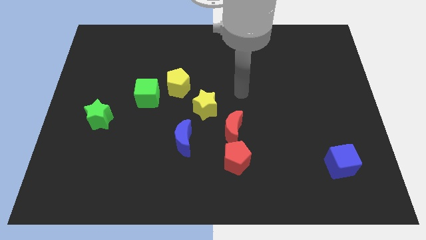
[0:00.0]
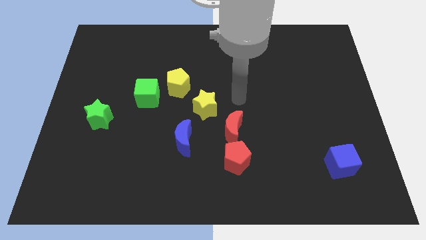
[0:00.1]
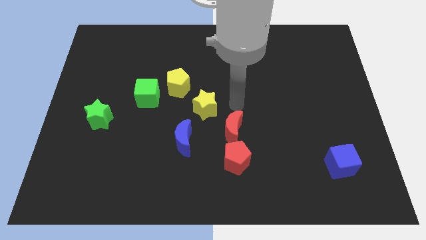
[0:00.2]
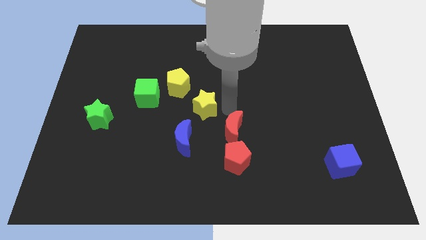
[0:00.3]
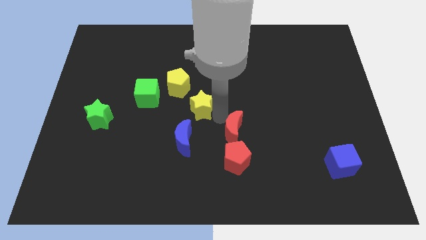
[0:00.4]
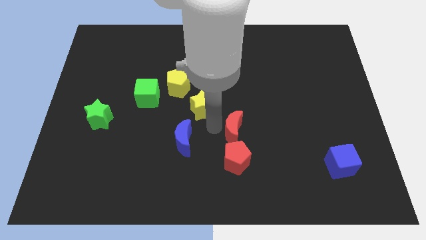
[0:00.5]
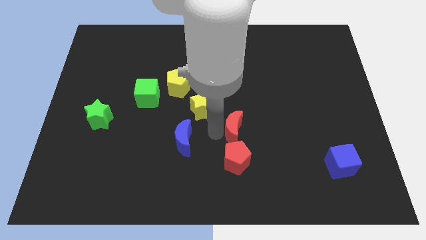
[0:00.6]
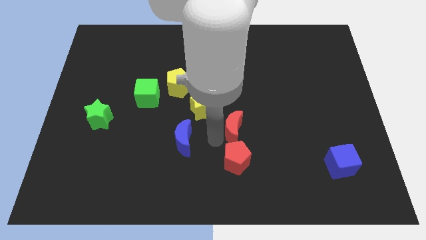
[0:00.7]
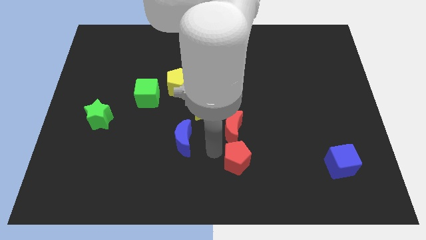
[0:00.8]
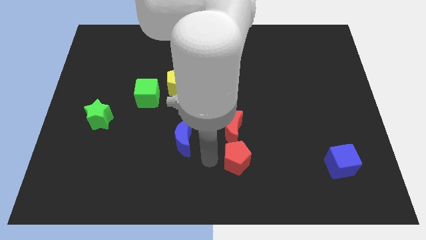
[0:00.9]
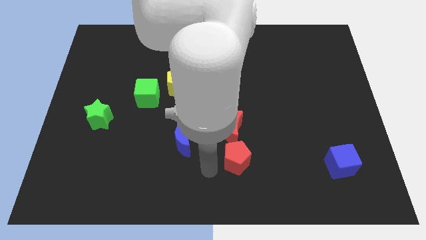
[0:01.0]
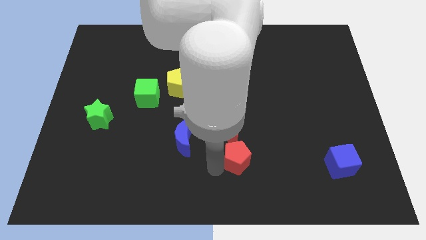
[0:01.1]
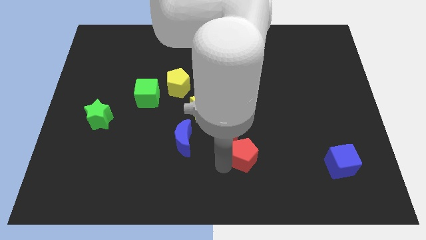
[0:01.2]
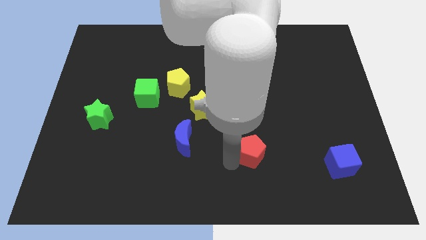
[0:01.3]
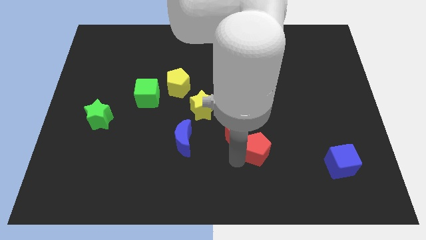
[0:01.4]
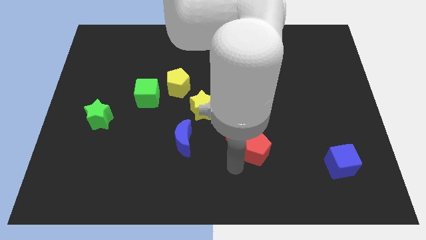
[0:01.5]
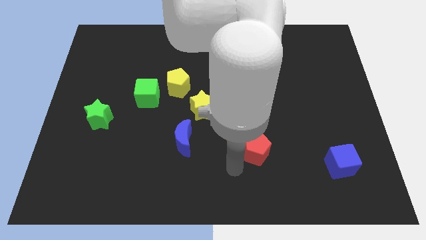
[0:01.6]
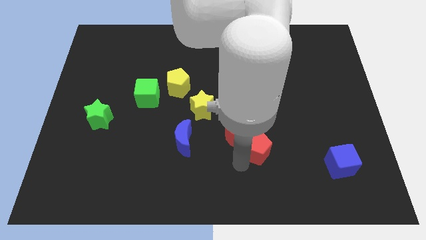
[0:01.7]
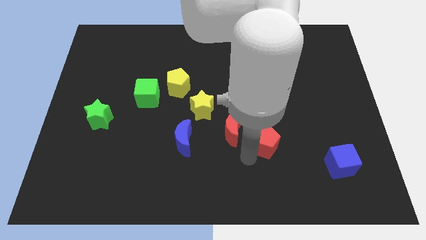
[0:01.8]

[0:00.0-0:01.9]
move the red pentagon up and to the right somewhat

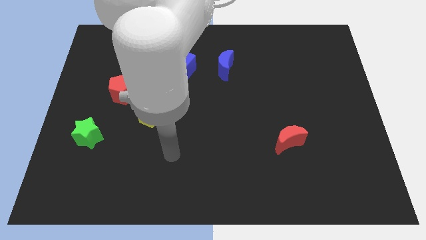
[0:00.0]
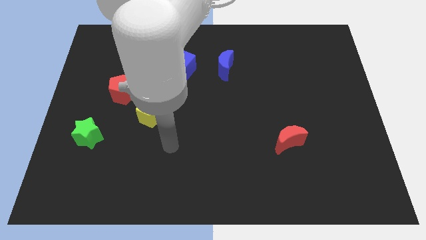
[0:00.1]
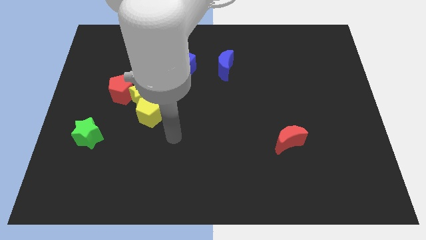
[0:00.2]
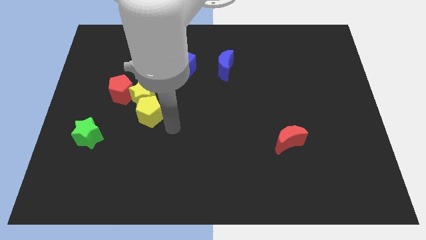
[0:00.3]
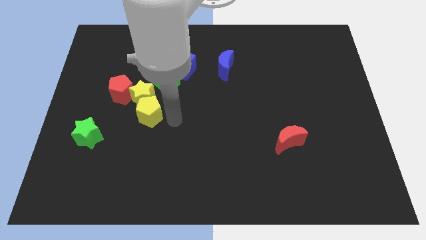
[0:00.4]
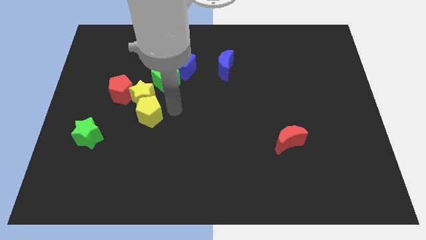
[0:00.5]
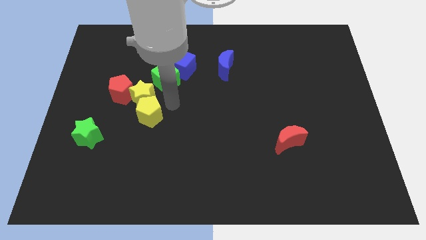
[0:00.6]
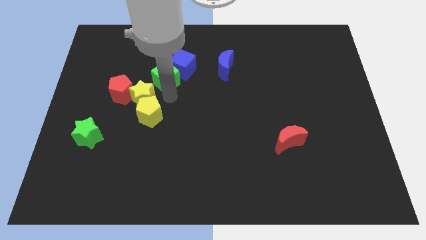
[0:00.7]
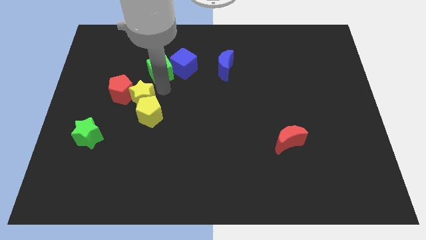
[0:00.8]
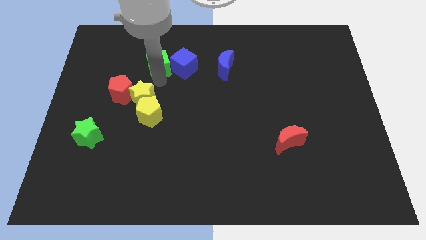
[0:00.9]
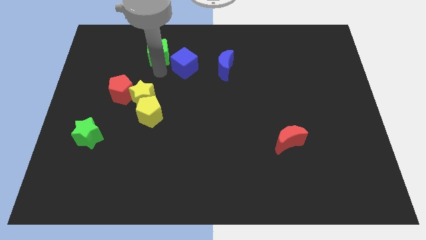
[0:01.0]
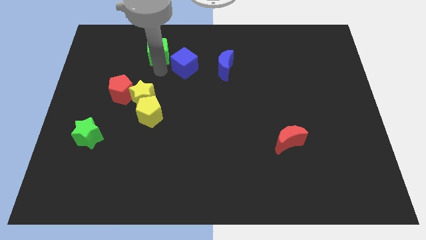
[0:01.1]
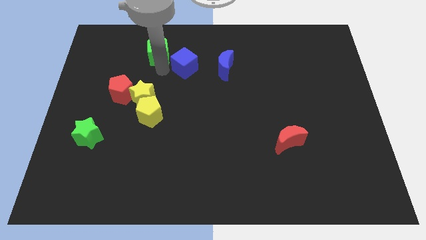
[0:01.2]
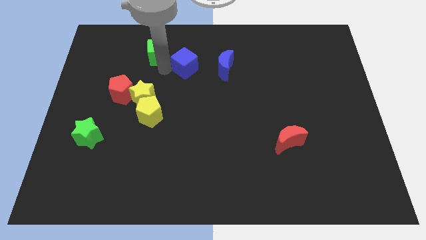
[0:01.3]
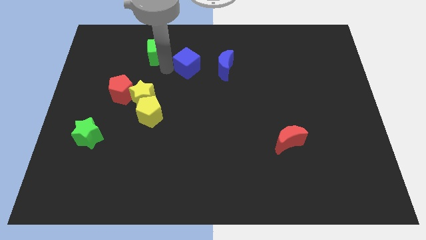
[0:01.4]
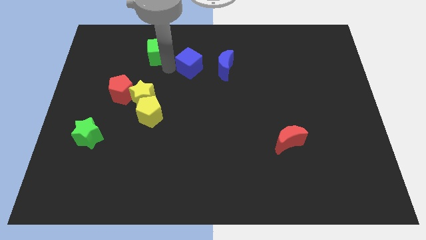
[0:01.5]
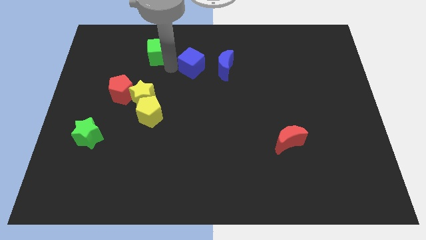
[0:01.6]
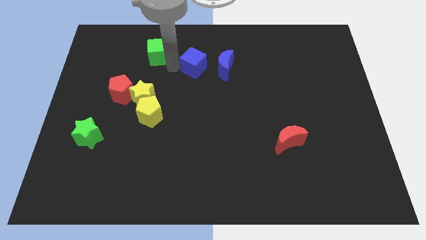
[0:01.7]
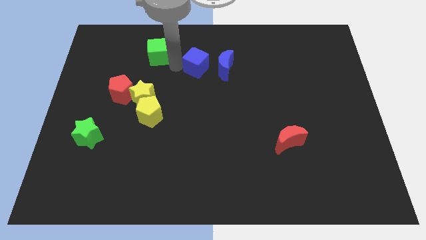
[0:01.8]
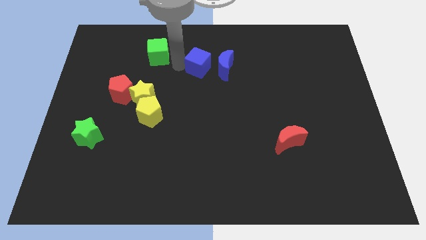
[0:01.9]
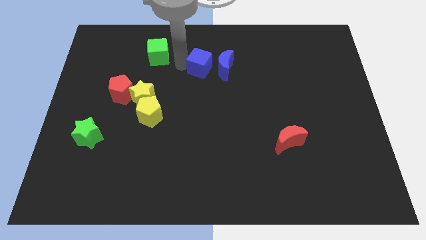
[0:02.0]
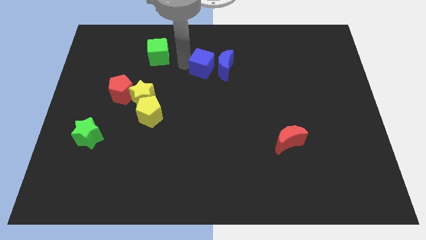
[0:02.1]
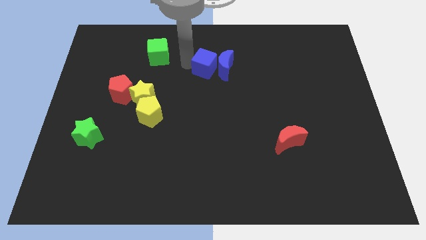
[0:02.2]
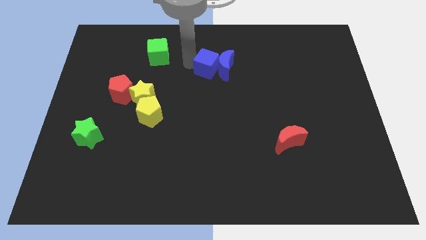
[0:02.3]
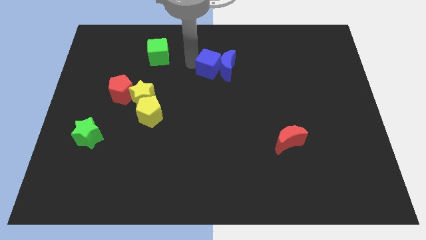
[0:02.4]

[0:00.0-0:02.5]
push the blue cube a bit to the right

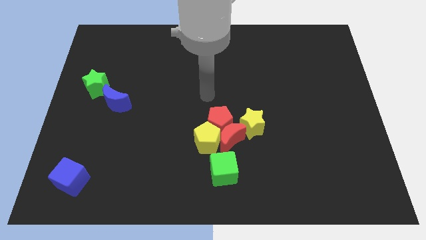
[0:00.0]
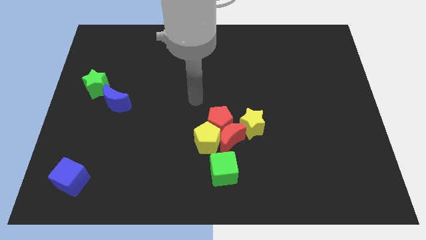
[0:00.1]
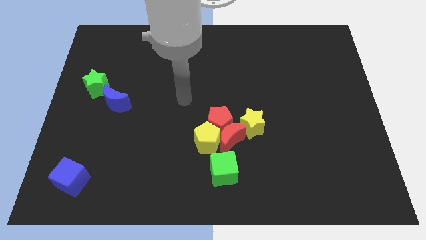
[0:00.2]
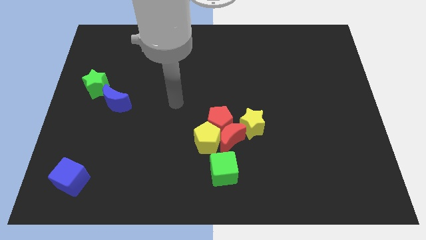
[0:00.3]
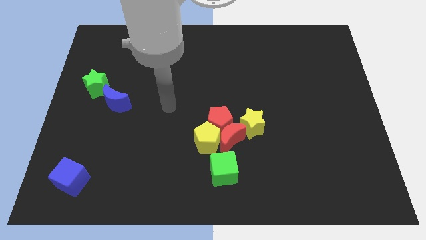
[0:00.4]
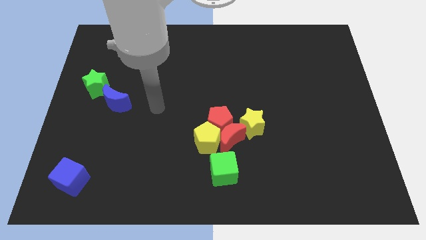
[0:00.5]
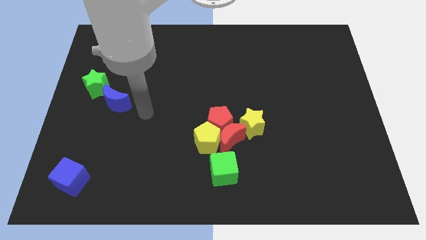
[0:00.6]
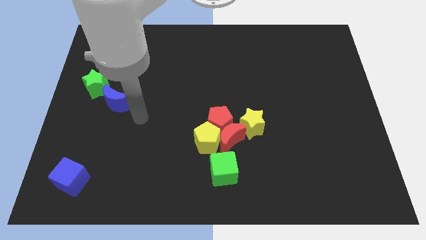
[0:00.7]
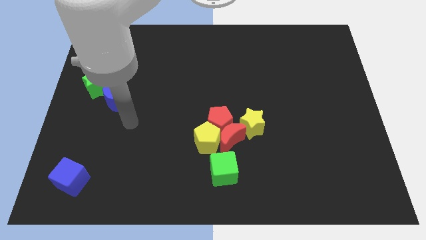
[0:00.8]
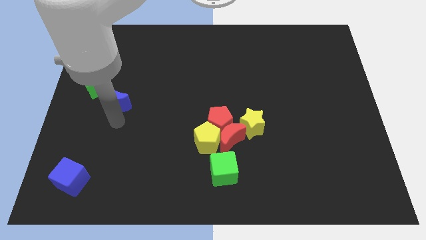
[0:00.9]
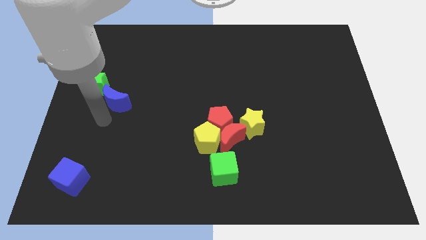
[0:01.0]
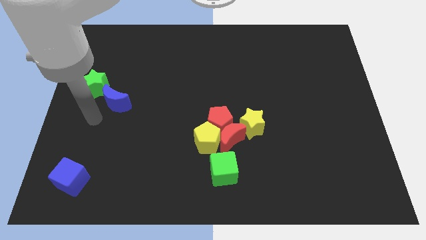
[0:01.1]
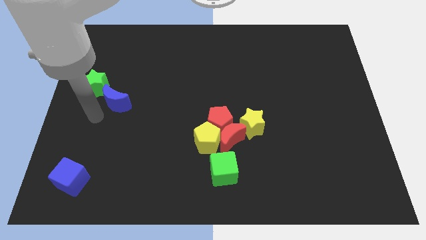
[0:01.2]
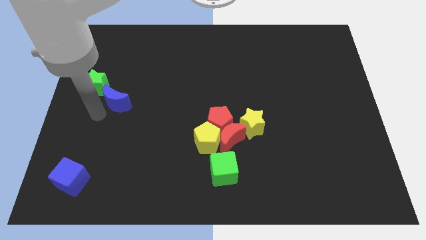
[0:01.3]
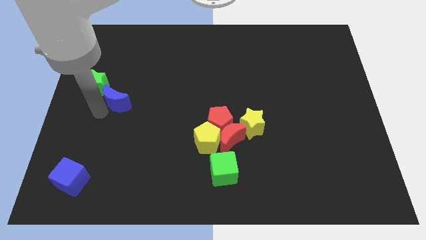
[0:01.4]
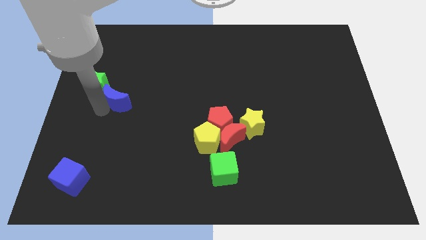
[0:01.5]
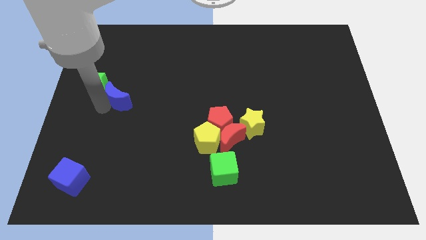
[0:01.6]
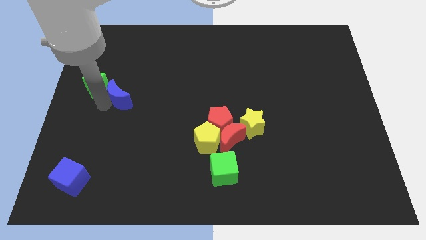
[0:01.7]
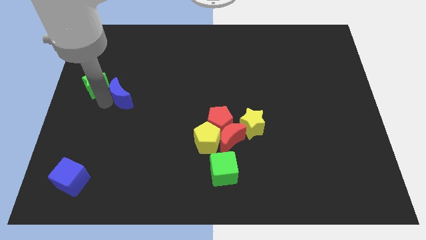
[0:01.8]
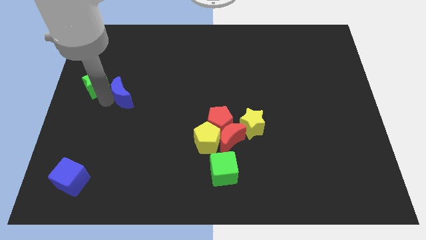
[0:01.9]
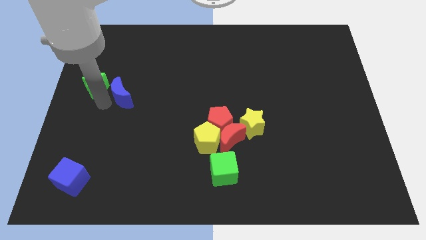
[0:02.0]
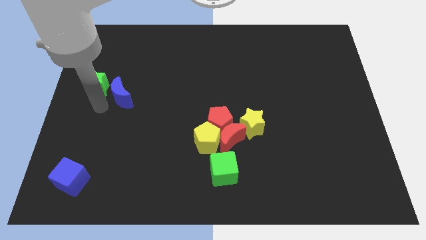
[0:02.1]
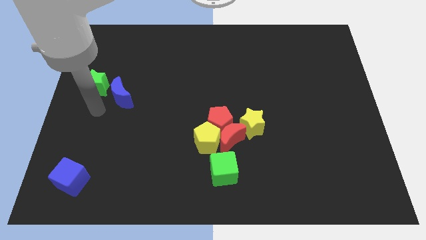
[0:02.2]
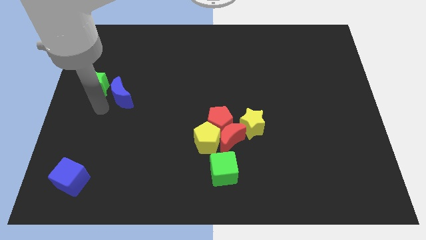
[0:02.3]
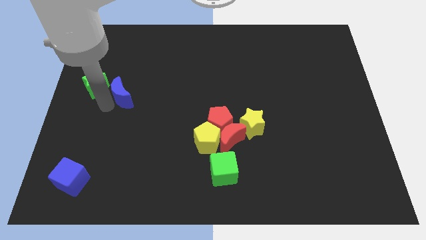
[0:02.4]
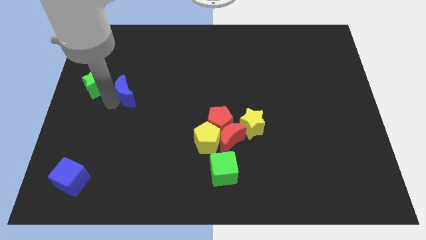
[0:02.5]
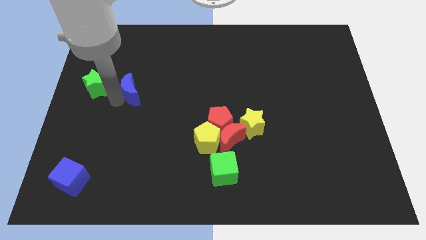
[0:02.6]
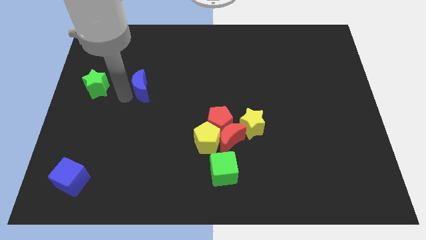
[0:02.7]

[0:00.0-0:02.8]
slightly move the blue moon up and right

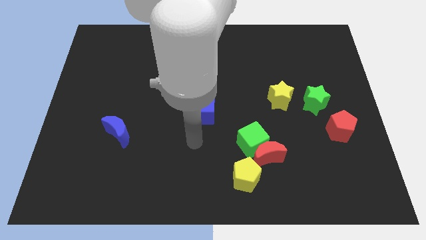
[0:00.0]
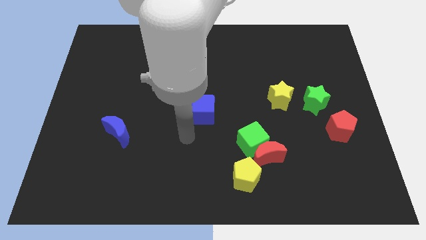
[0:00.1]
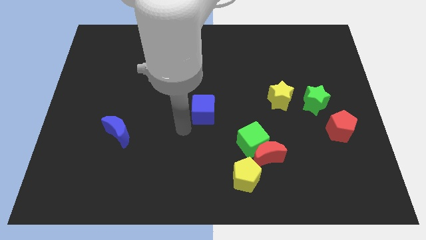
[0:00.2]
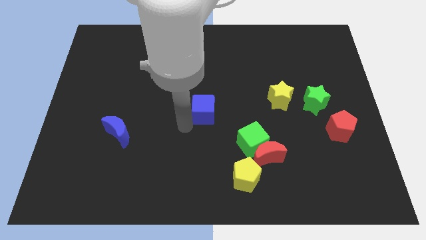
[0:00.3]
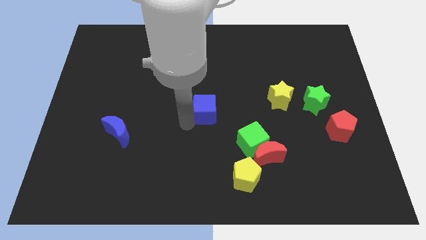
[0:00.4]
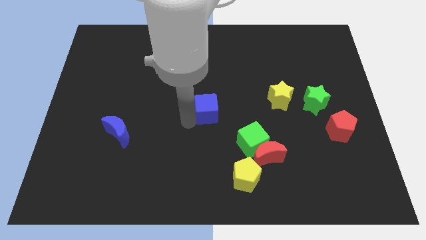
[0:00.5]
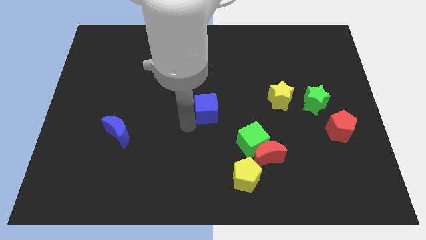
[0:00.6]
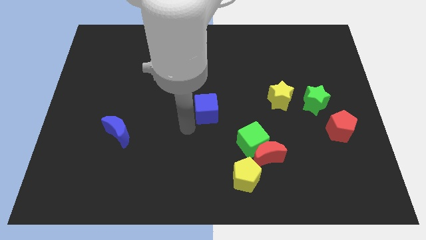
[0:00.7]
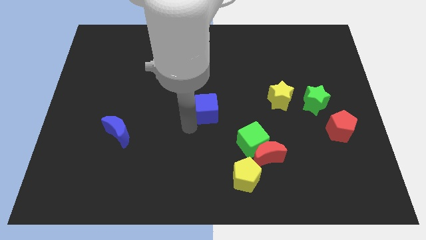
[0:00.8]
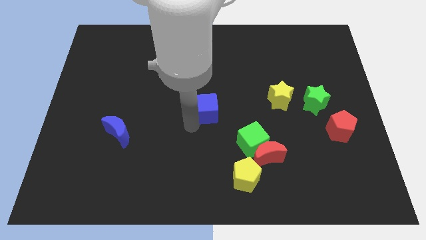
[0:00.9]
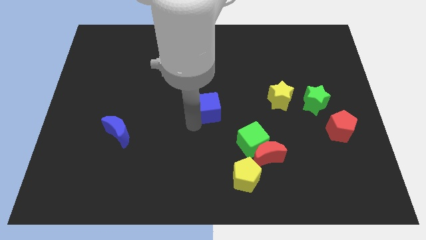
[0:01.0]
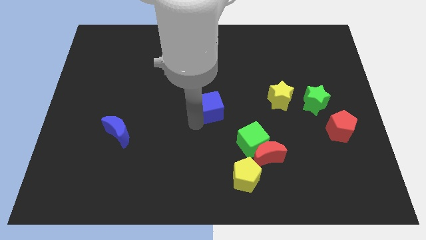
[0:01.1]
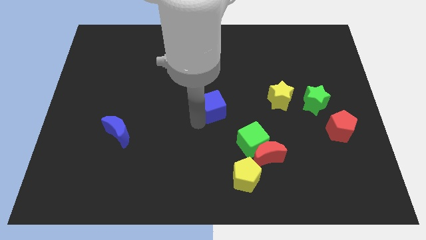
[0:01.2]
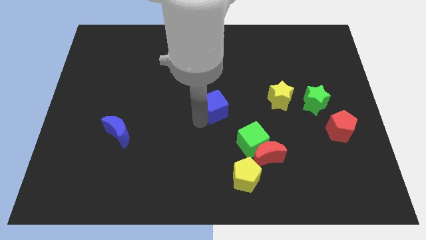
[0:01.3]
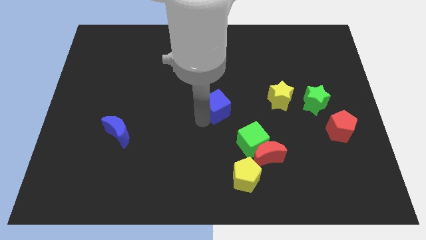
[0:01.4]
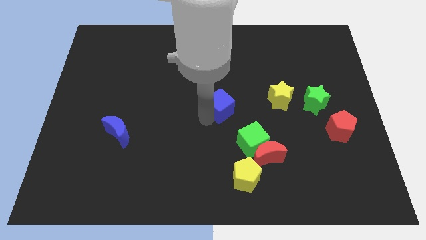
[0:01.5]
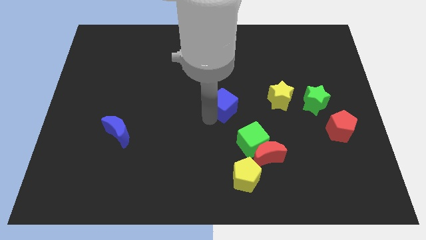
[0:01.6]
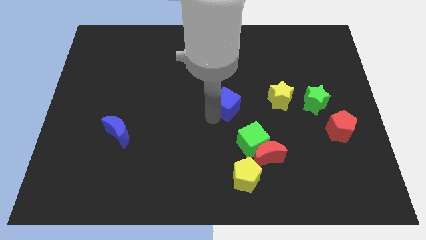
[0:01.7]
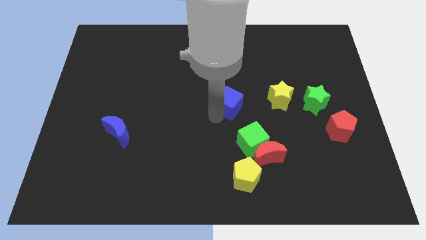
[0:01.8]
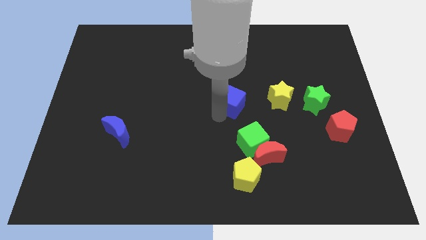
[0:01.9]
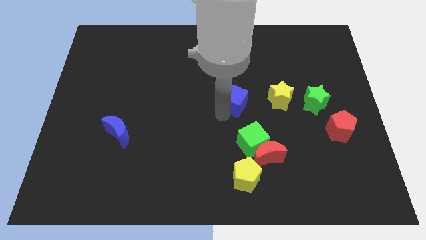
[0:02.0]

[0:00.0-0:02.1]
slide the blue cube up and right diagonally a little
